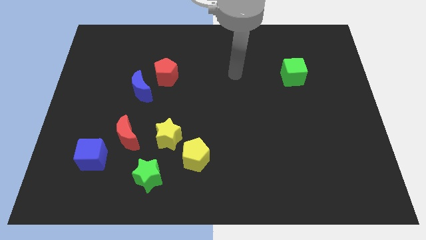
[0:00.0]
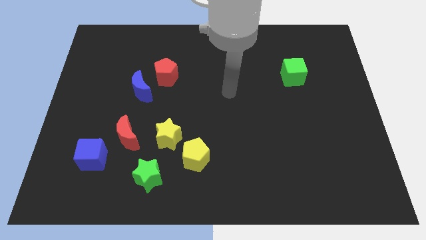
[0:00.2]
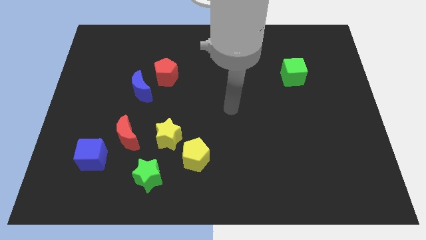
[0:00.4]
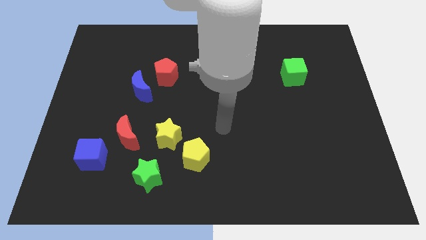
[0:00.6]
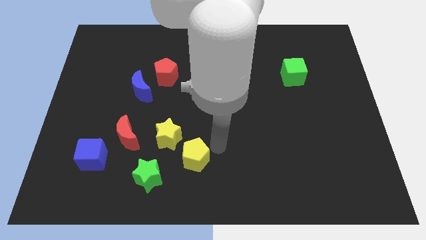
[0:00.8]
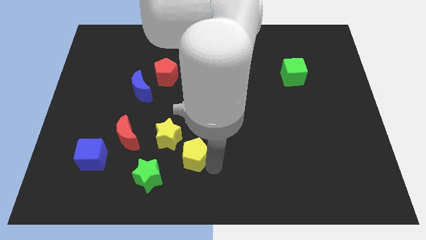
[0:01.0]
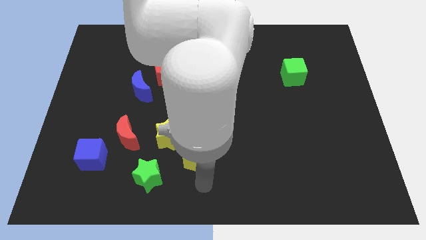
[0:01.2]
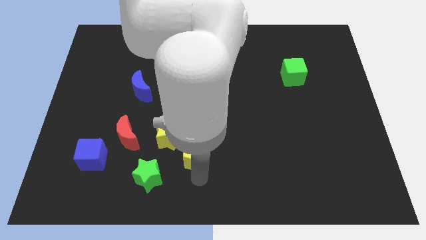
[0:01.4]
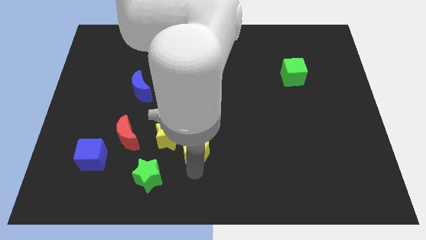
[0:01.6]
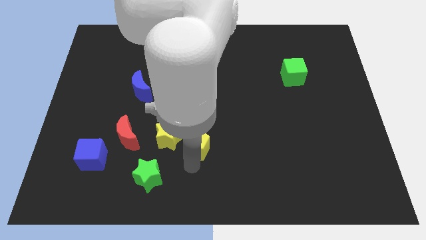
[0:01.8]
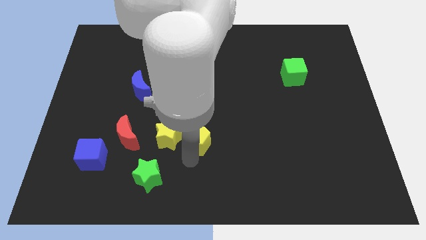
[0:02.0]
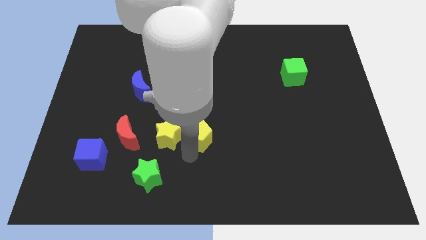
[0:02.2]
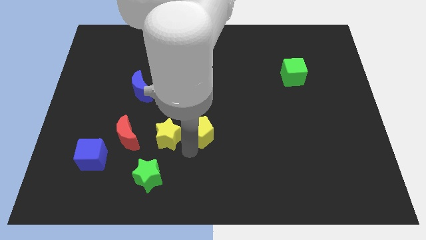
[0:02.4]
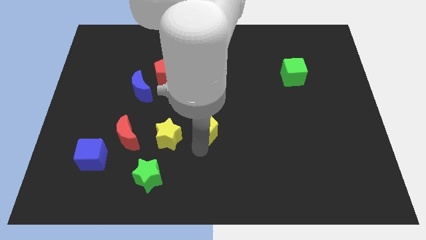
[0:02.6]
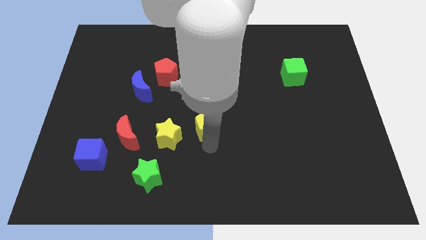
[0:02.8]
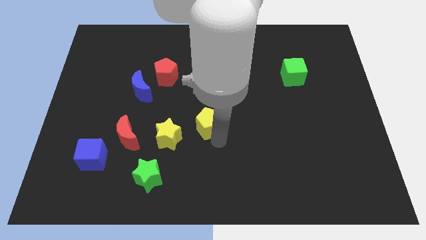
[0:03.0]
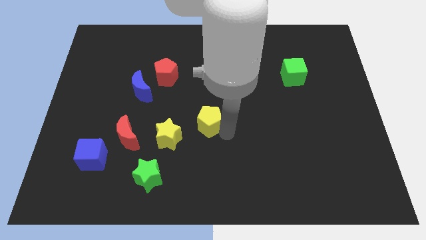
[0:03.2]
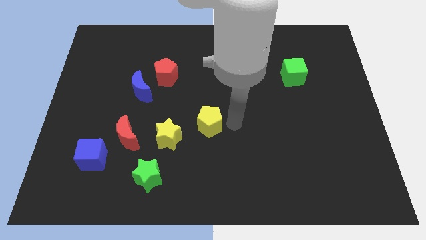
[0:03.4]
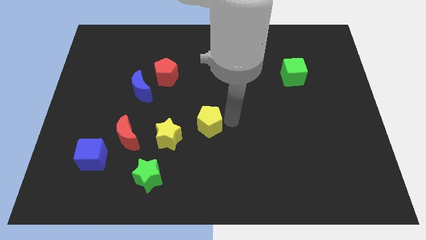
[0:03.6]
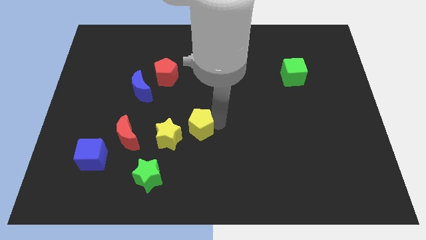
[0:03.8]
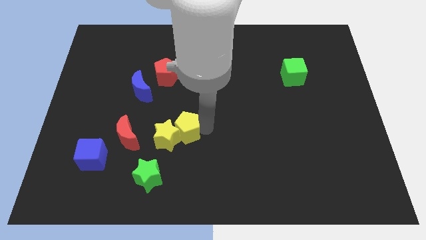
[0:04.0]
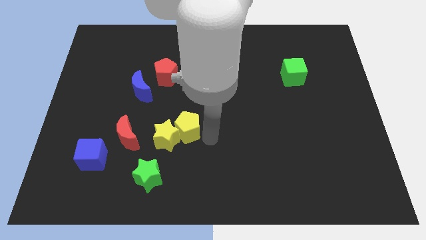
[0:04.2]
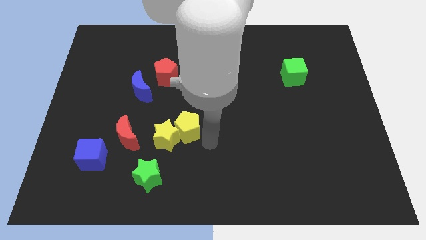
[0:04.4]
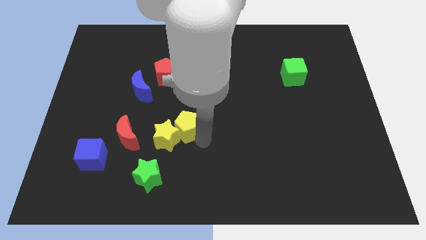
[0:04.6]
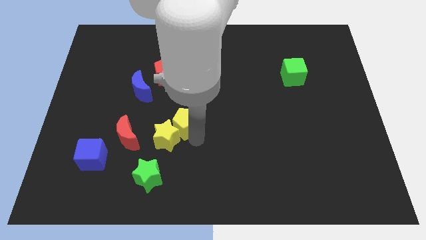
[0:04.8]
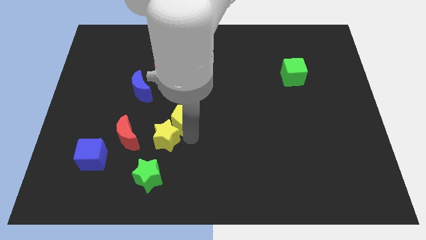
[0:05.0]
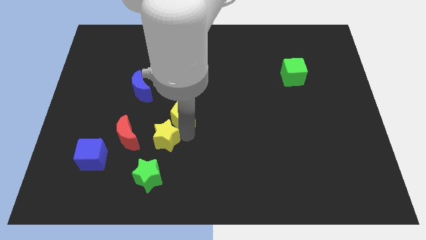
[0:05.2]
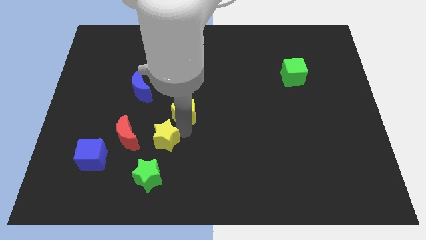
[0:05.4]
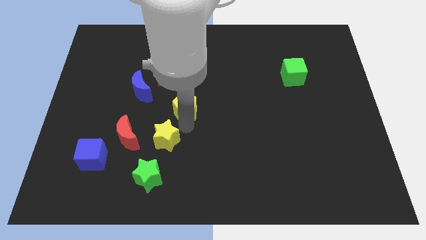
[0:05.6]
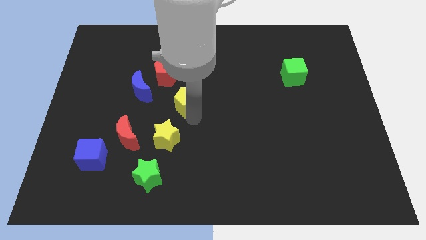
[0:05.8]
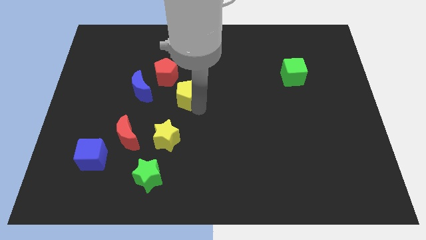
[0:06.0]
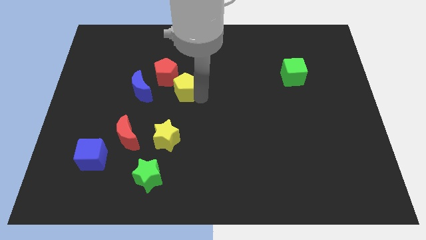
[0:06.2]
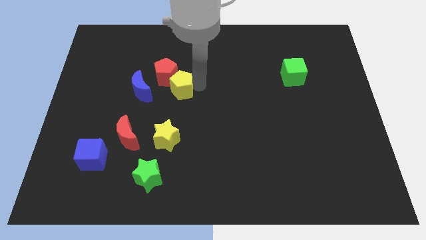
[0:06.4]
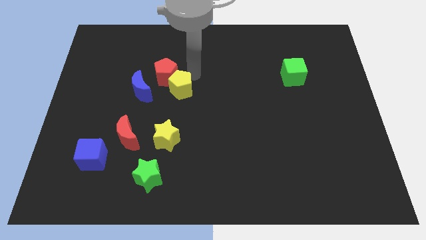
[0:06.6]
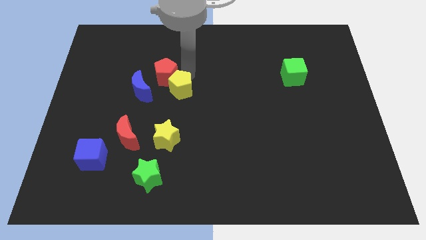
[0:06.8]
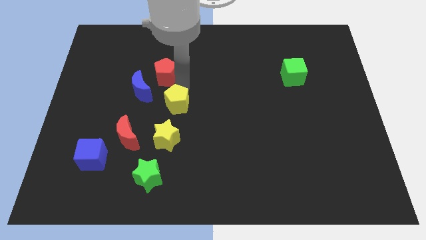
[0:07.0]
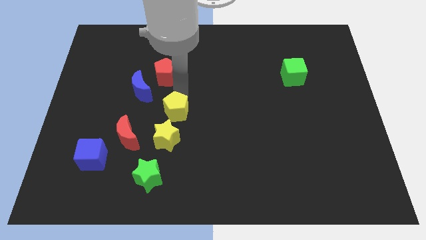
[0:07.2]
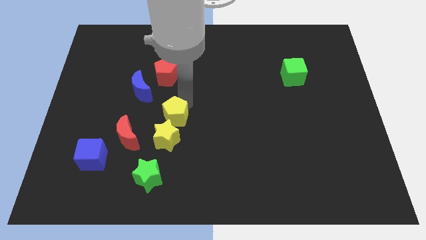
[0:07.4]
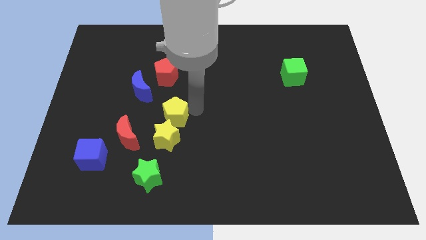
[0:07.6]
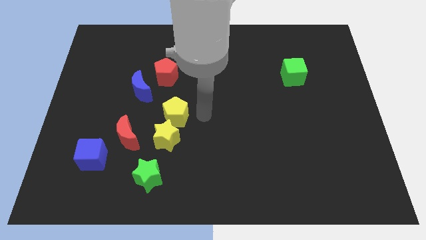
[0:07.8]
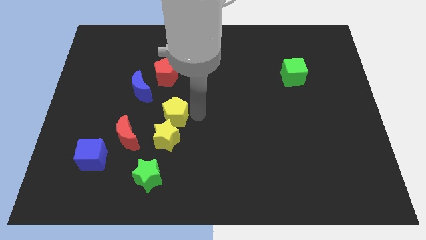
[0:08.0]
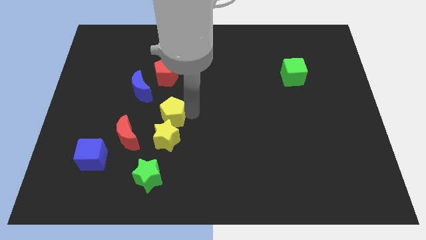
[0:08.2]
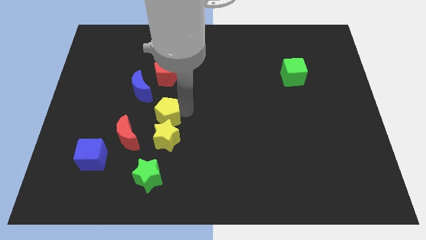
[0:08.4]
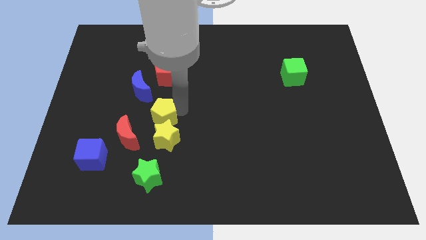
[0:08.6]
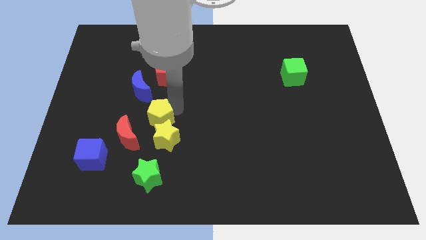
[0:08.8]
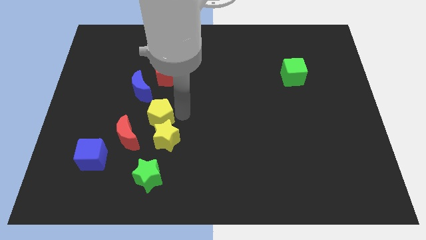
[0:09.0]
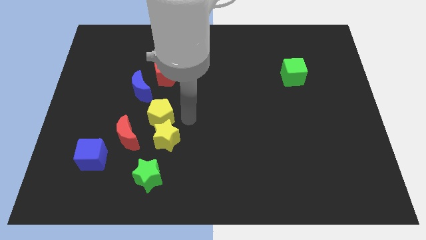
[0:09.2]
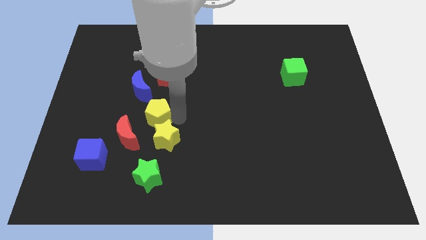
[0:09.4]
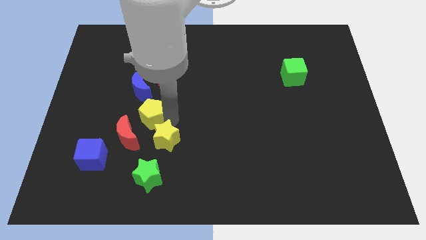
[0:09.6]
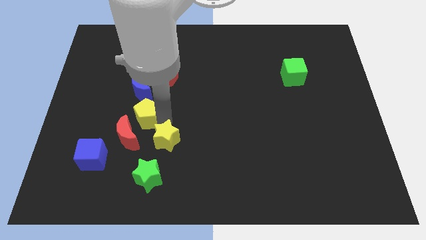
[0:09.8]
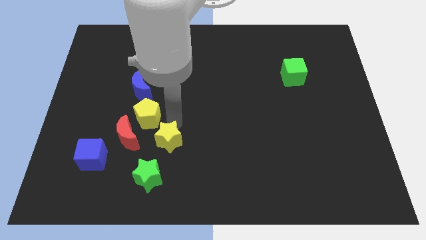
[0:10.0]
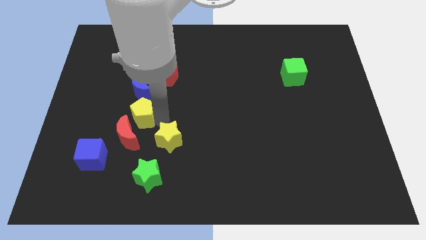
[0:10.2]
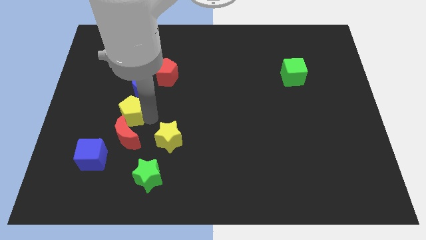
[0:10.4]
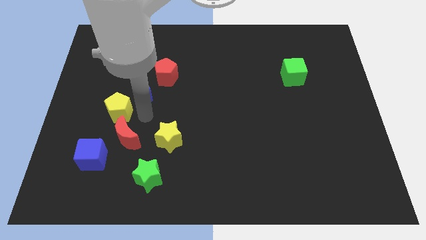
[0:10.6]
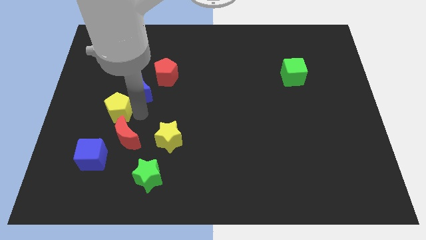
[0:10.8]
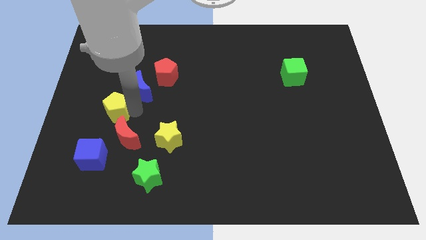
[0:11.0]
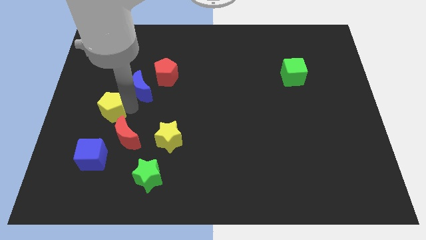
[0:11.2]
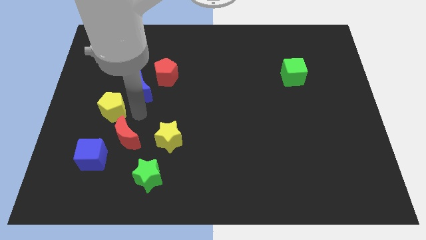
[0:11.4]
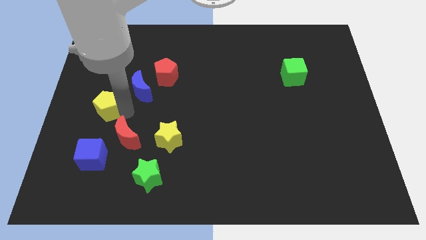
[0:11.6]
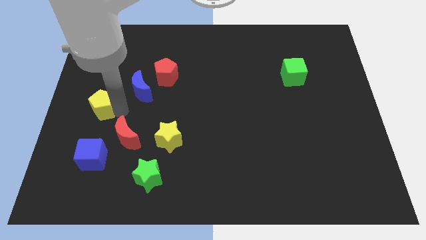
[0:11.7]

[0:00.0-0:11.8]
push the yellow pentagon to the left side

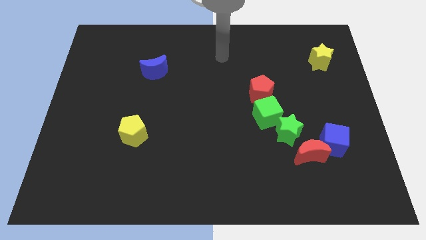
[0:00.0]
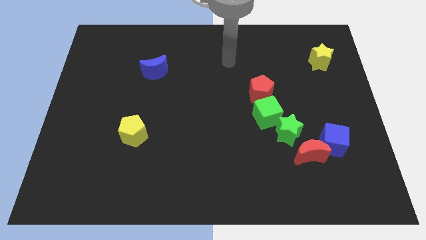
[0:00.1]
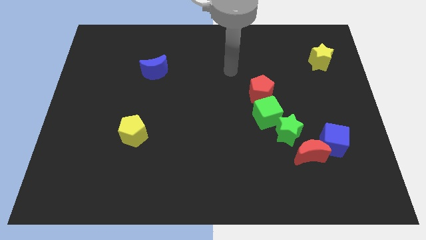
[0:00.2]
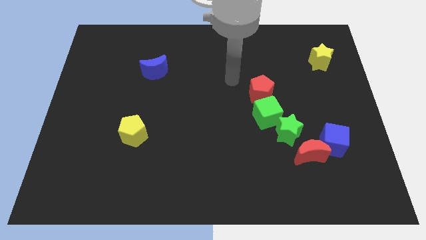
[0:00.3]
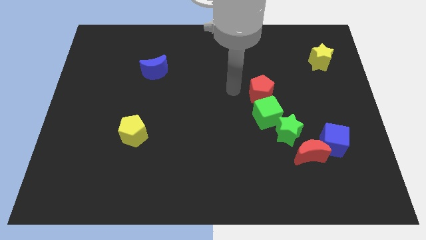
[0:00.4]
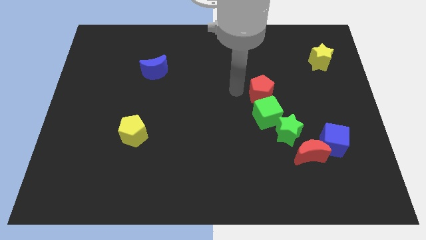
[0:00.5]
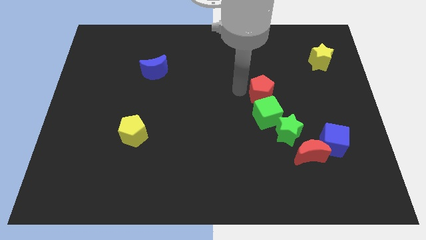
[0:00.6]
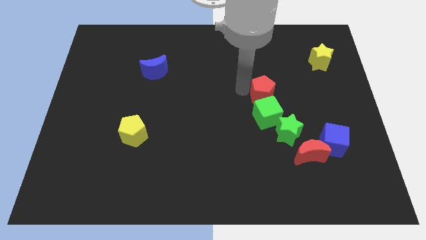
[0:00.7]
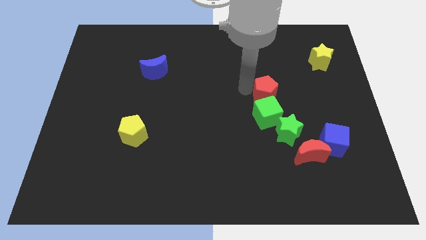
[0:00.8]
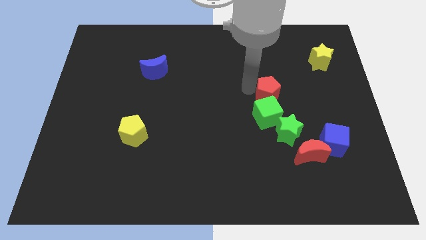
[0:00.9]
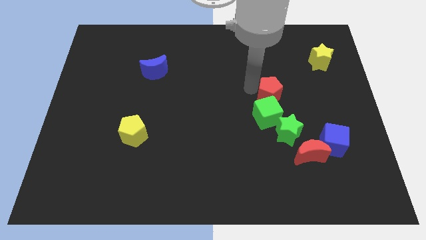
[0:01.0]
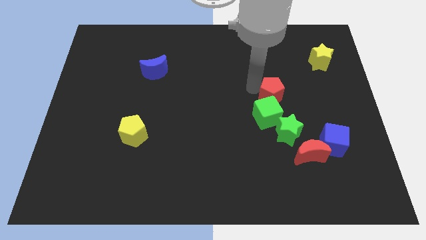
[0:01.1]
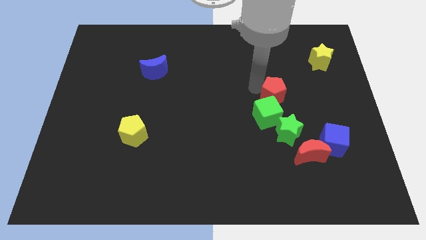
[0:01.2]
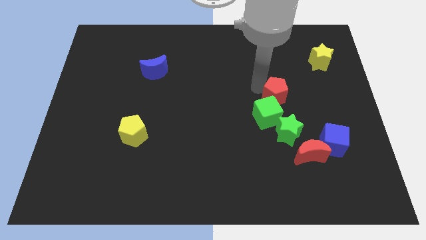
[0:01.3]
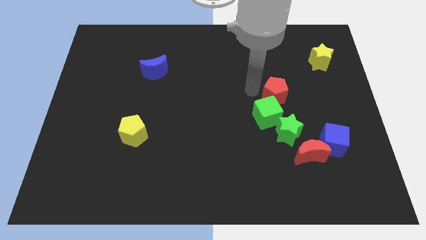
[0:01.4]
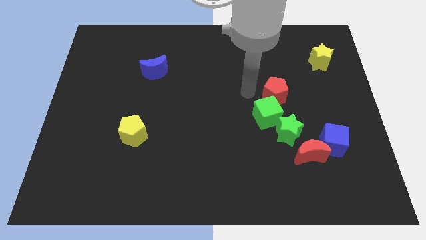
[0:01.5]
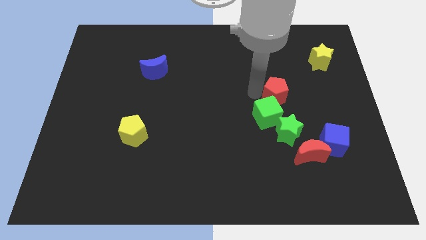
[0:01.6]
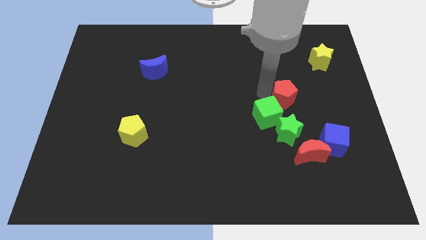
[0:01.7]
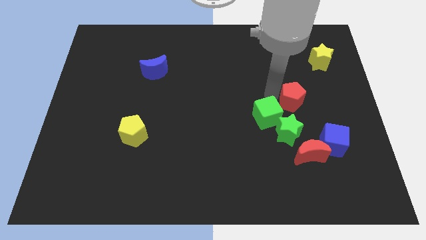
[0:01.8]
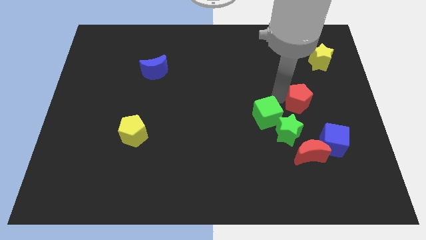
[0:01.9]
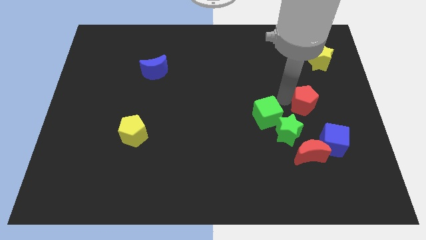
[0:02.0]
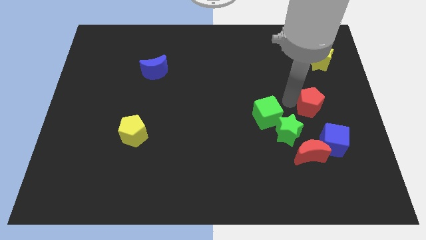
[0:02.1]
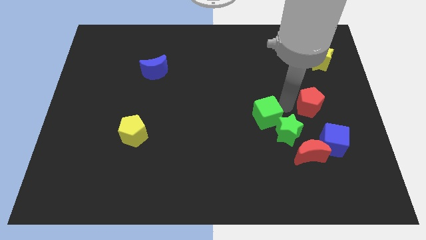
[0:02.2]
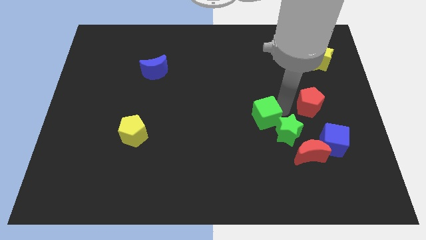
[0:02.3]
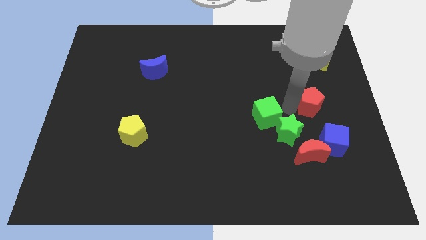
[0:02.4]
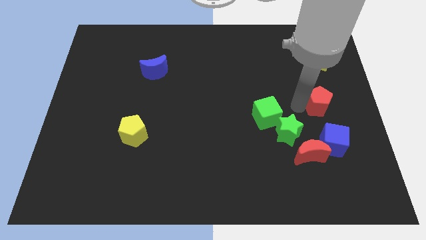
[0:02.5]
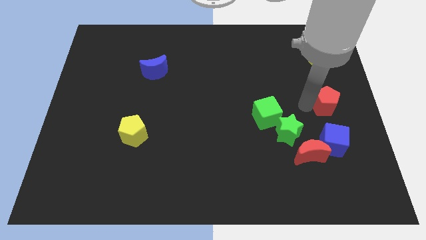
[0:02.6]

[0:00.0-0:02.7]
push the red pentagon to the right side
